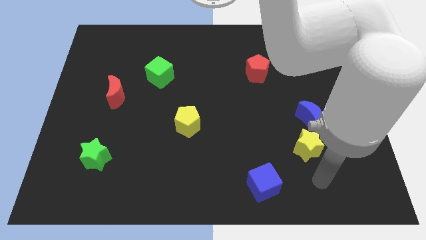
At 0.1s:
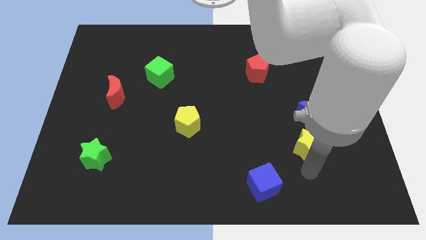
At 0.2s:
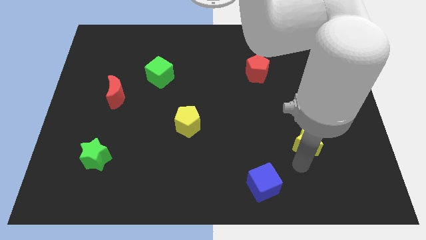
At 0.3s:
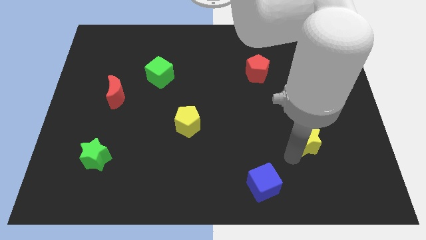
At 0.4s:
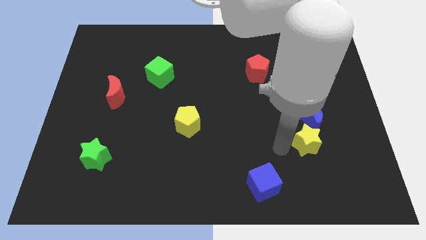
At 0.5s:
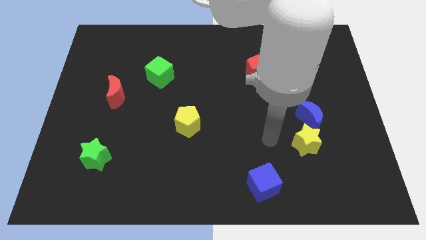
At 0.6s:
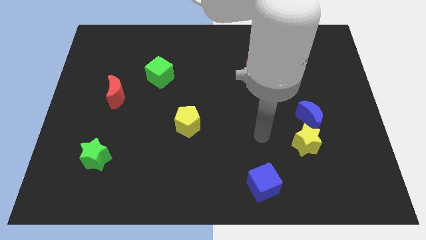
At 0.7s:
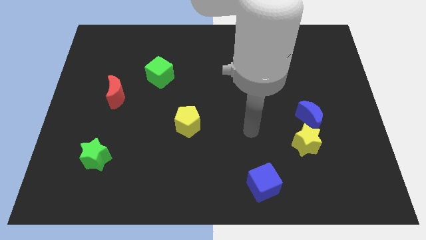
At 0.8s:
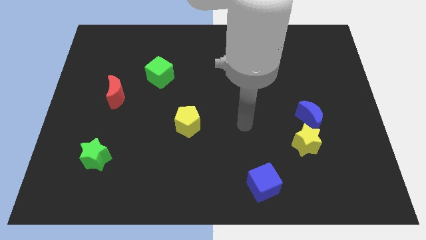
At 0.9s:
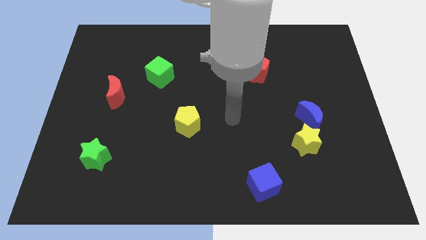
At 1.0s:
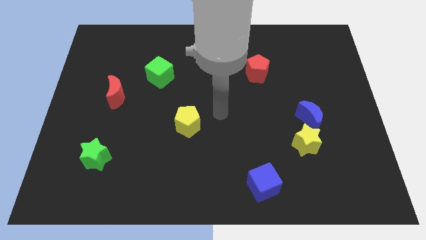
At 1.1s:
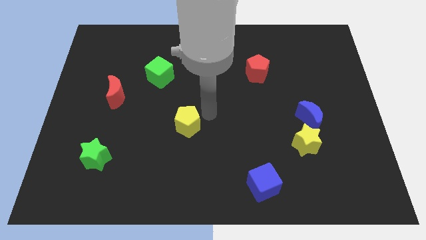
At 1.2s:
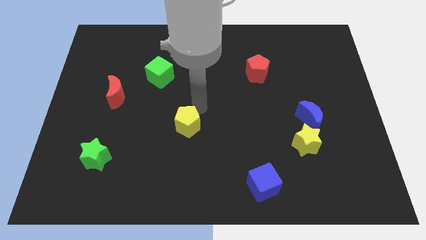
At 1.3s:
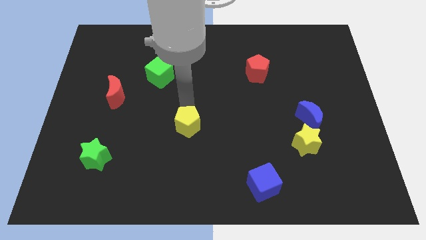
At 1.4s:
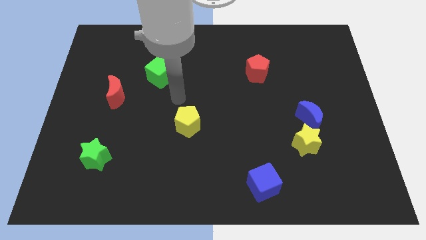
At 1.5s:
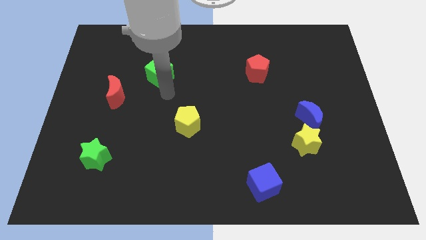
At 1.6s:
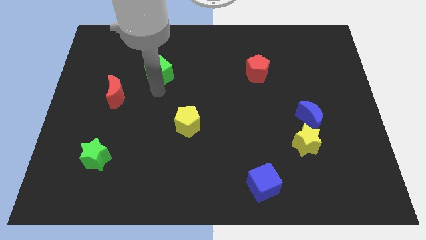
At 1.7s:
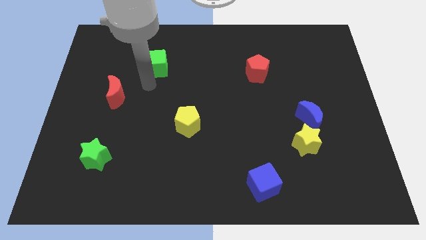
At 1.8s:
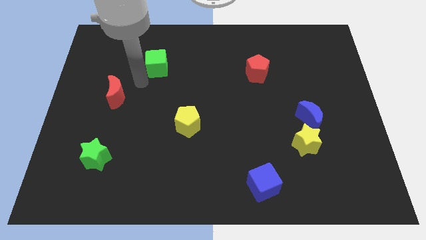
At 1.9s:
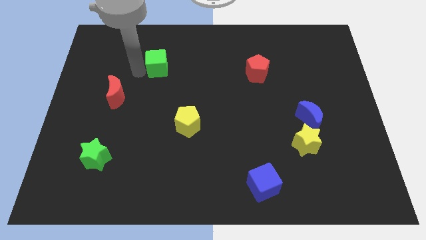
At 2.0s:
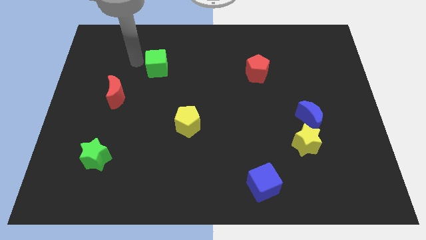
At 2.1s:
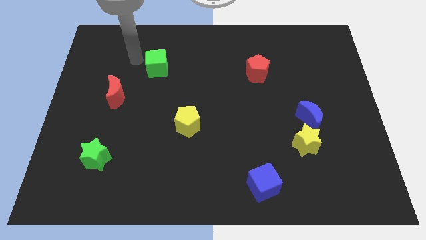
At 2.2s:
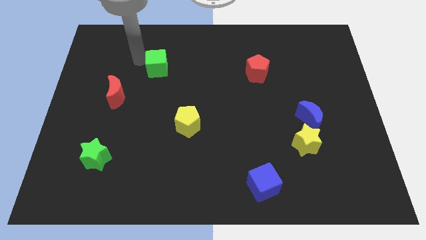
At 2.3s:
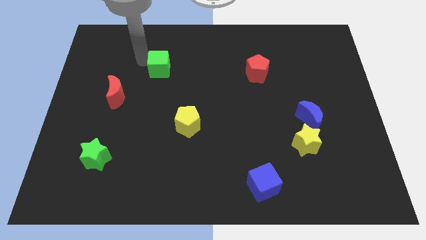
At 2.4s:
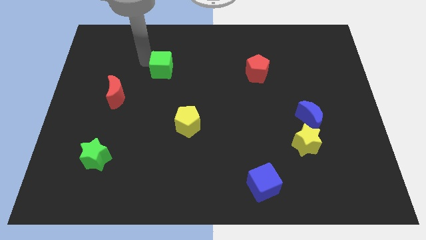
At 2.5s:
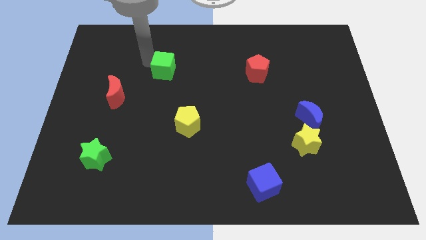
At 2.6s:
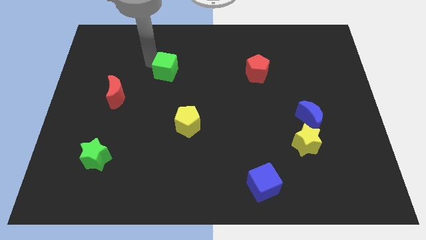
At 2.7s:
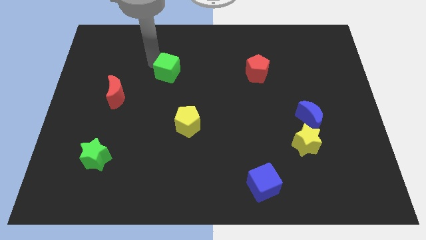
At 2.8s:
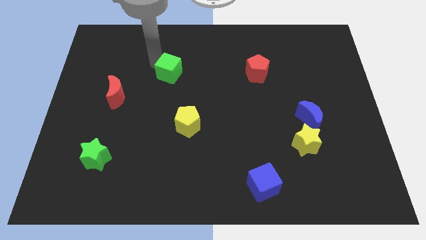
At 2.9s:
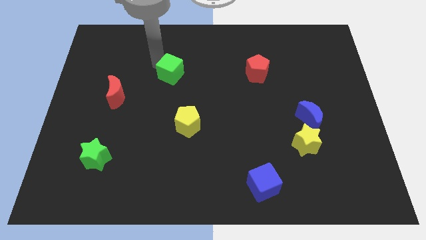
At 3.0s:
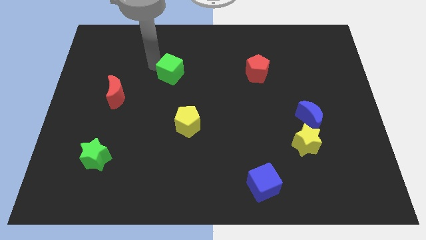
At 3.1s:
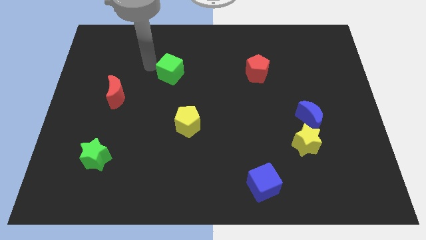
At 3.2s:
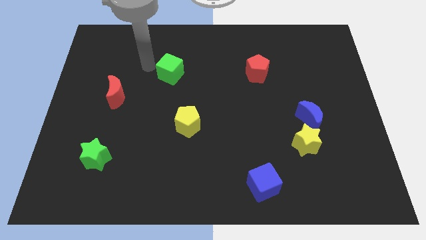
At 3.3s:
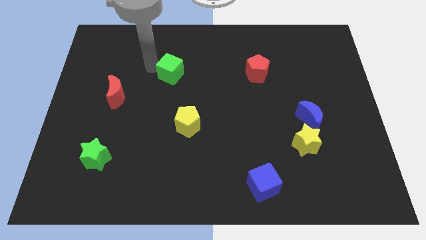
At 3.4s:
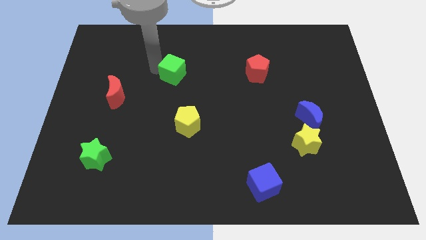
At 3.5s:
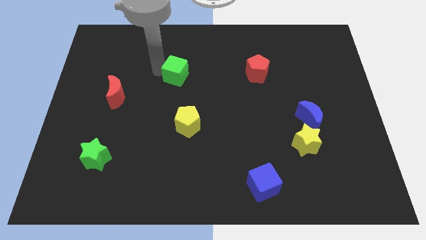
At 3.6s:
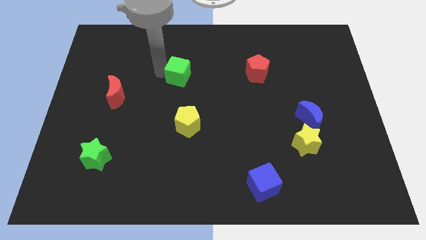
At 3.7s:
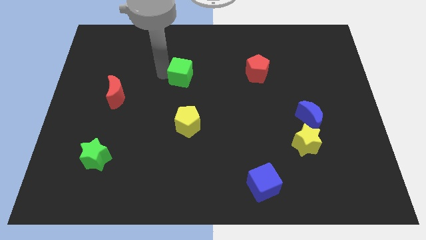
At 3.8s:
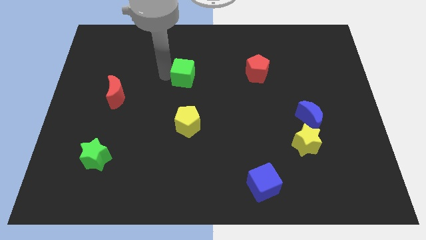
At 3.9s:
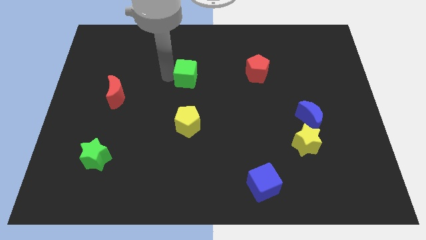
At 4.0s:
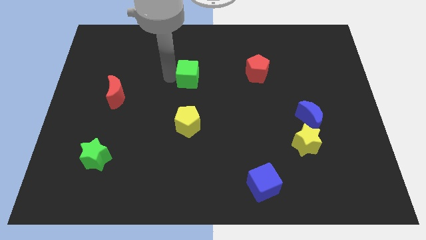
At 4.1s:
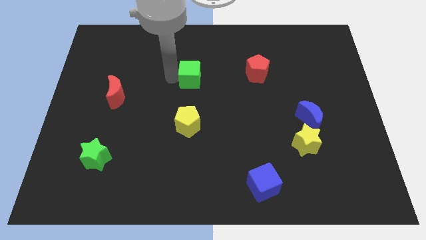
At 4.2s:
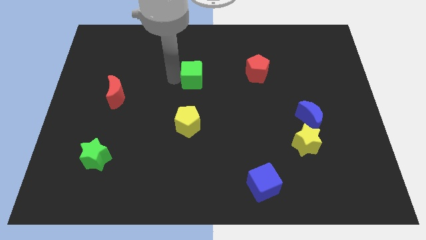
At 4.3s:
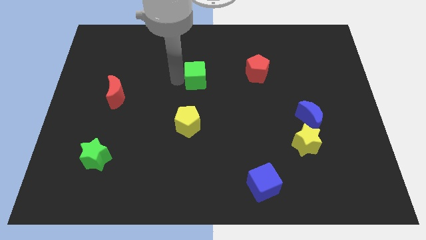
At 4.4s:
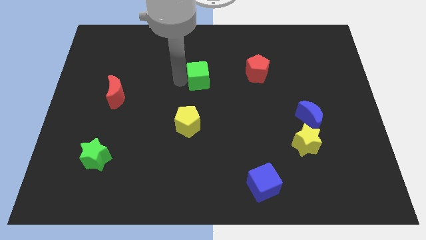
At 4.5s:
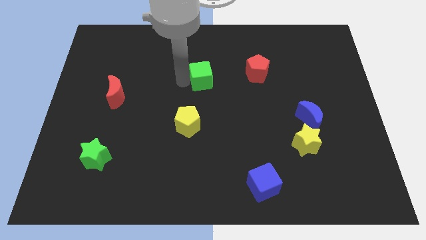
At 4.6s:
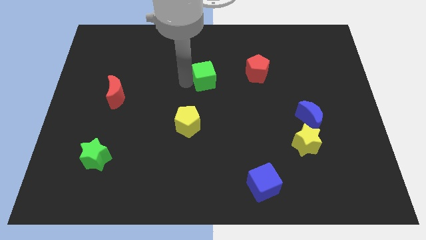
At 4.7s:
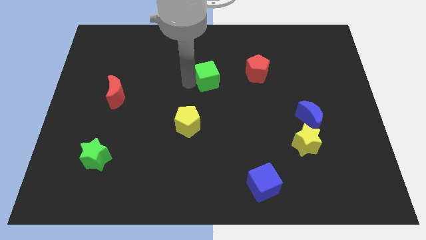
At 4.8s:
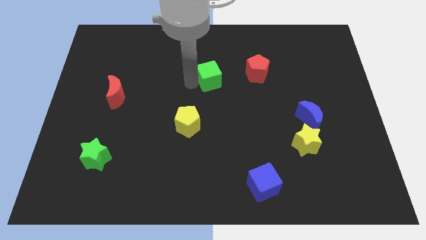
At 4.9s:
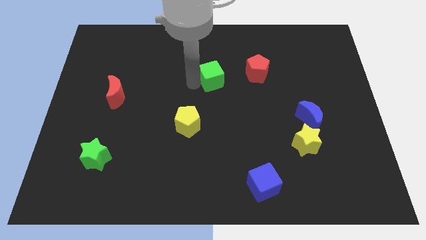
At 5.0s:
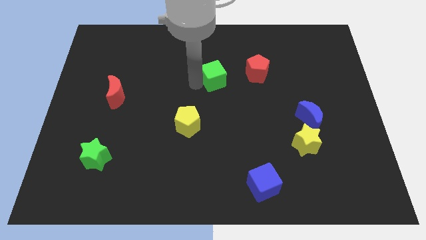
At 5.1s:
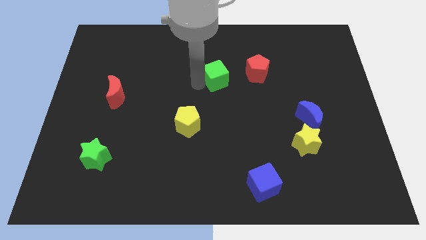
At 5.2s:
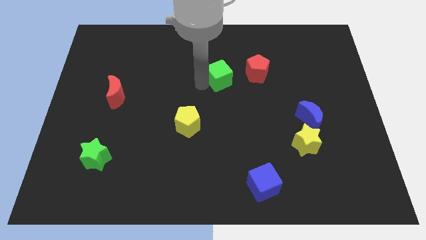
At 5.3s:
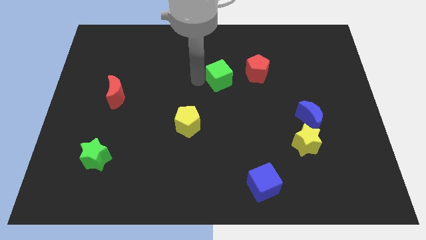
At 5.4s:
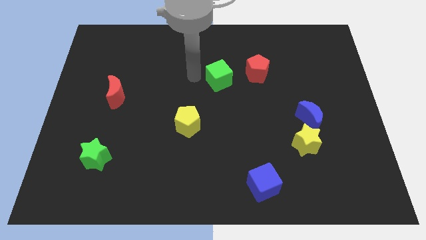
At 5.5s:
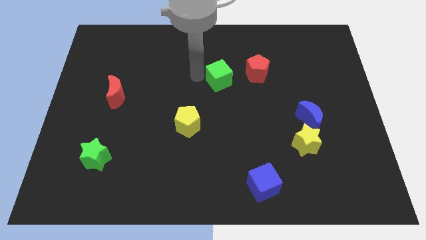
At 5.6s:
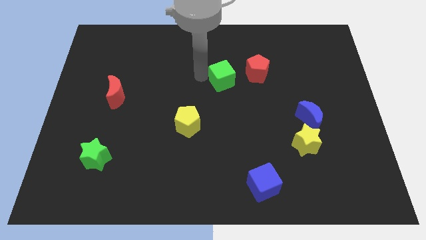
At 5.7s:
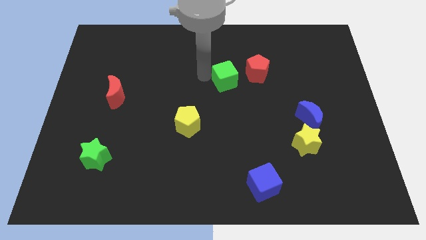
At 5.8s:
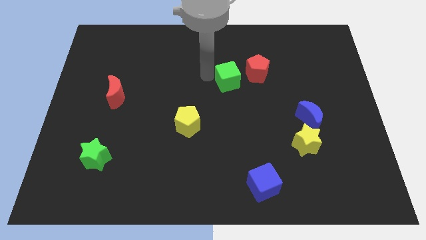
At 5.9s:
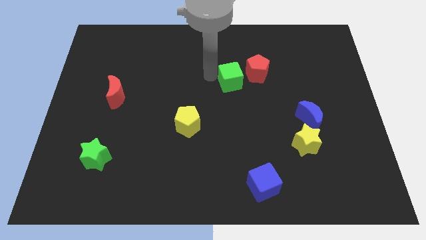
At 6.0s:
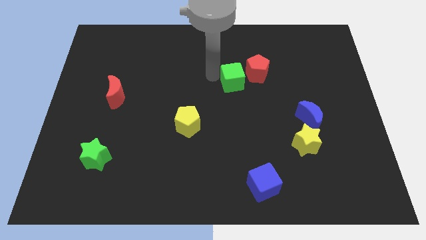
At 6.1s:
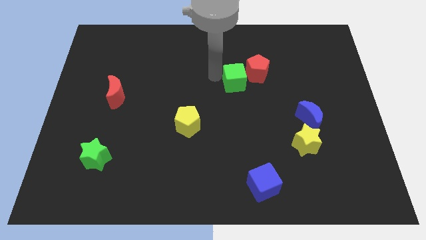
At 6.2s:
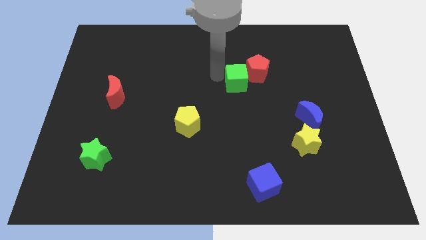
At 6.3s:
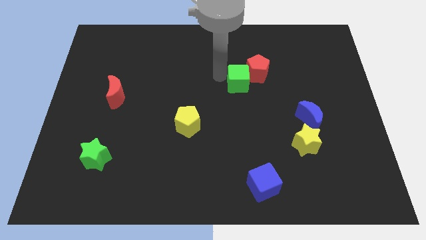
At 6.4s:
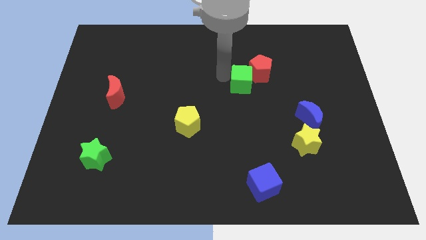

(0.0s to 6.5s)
slide the green cube to the right

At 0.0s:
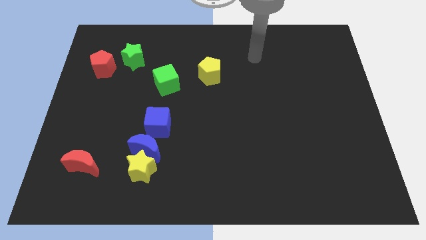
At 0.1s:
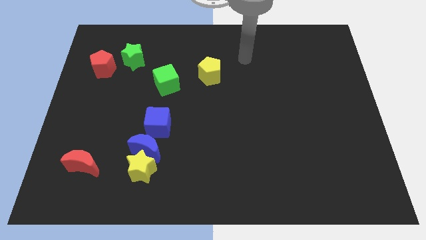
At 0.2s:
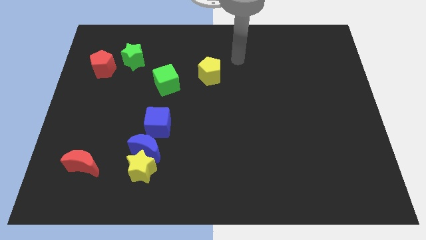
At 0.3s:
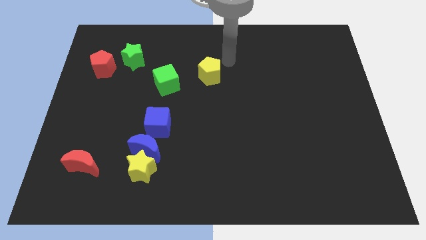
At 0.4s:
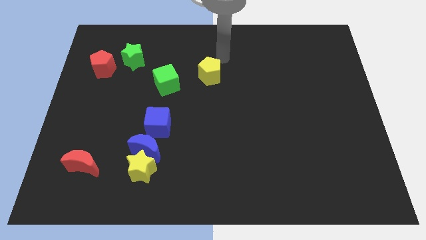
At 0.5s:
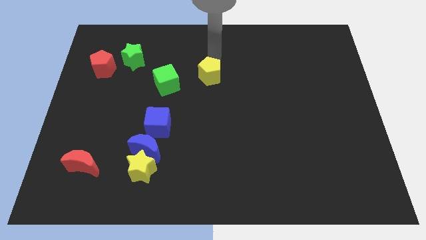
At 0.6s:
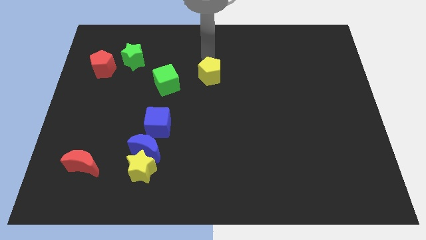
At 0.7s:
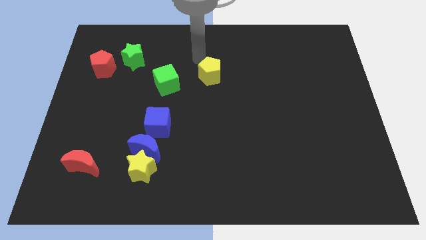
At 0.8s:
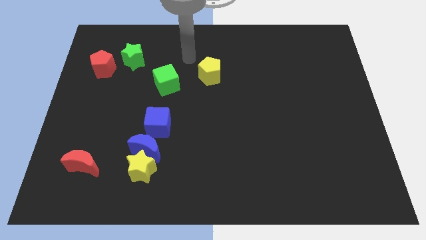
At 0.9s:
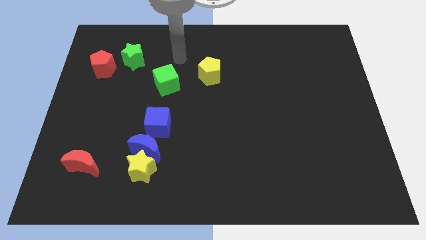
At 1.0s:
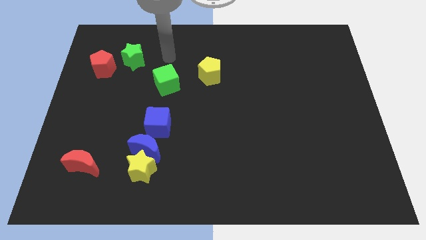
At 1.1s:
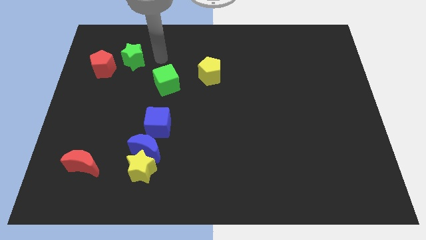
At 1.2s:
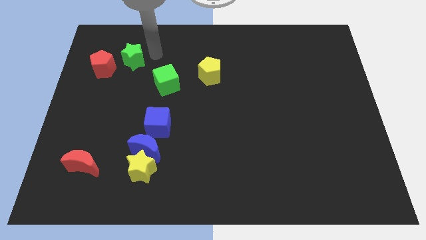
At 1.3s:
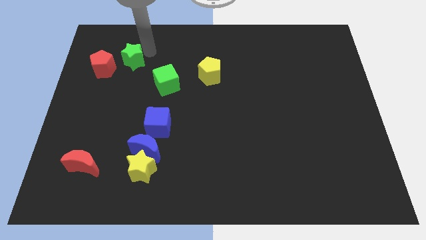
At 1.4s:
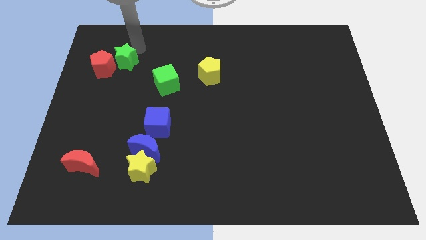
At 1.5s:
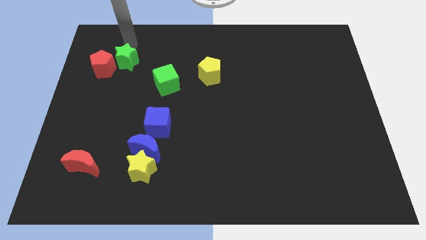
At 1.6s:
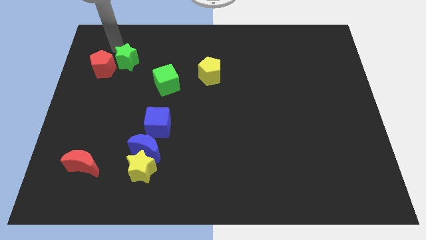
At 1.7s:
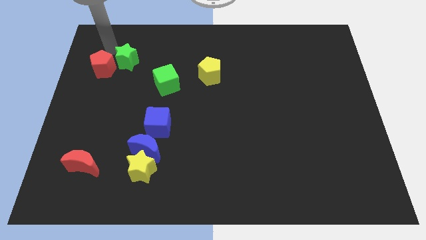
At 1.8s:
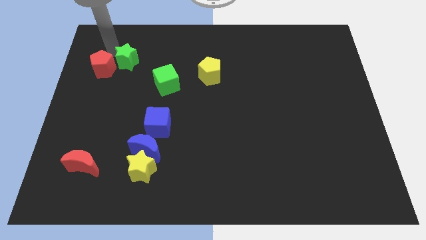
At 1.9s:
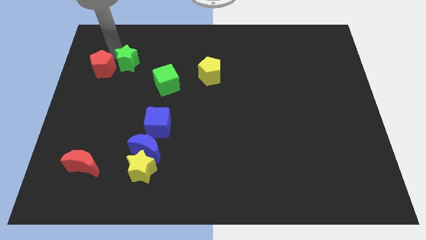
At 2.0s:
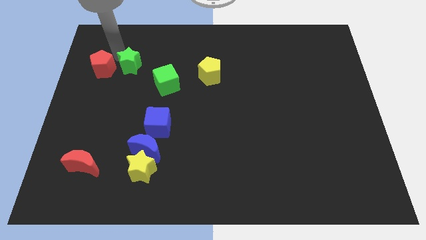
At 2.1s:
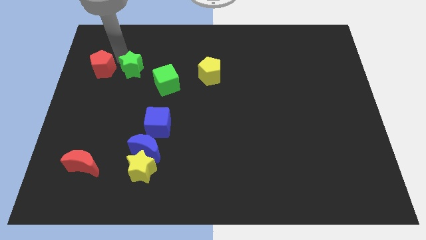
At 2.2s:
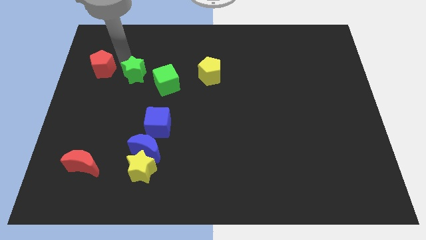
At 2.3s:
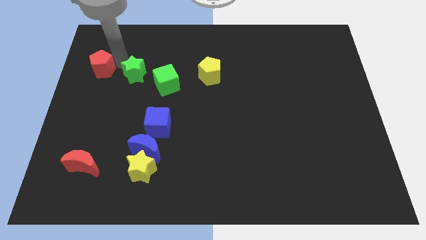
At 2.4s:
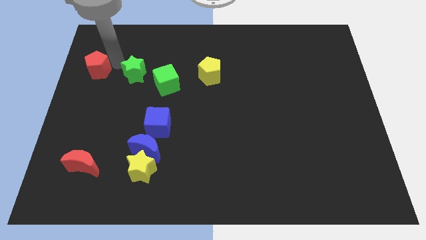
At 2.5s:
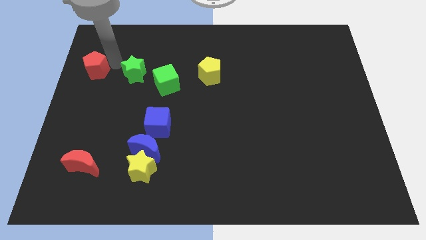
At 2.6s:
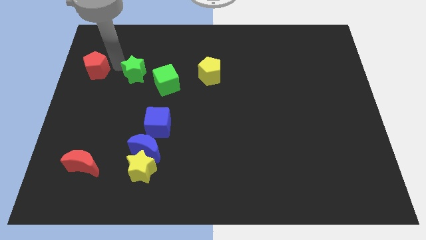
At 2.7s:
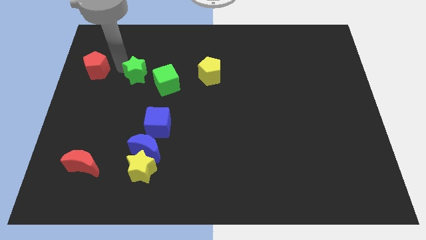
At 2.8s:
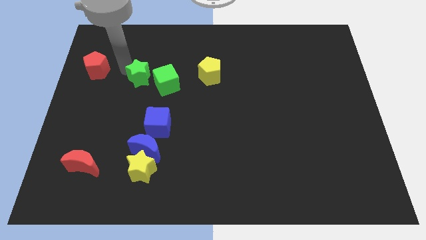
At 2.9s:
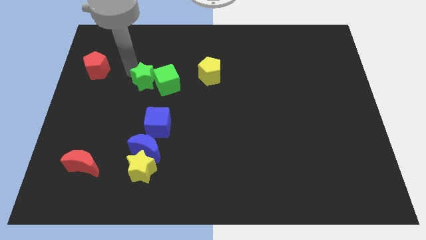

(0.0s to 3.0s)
slide the green star slightly down and then to the right
